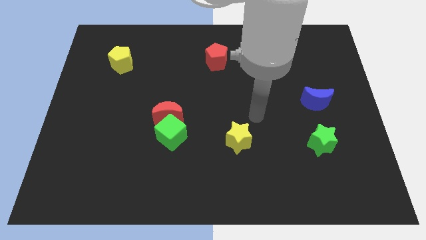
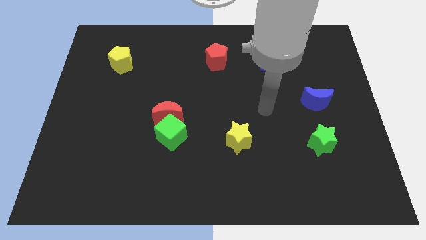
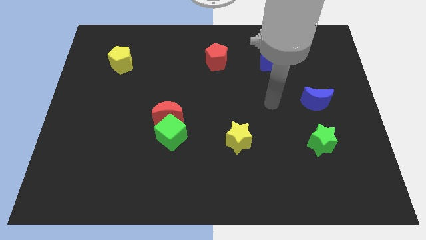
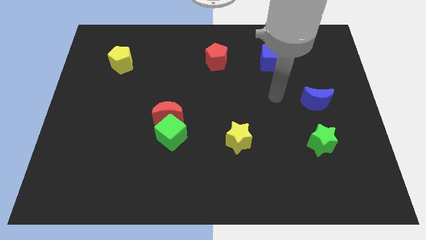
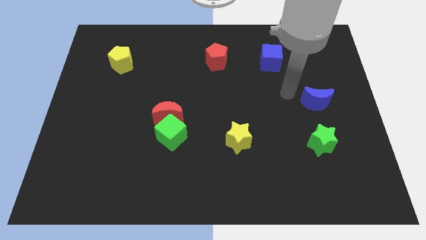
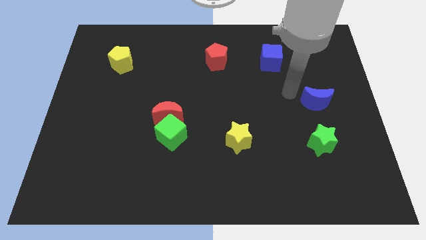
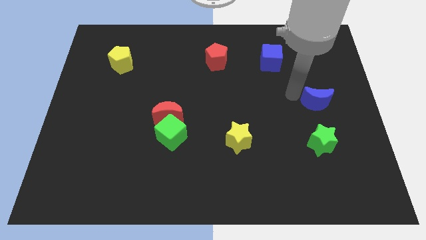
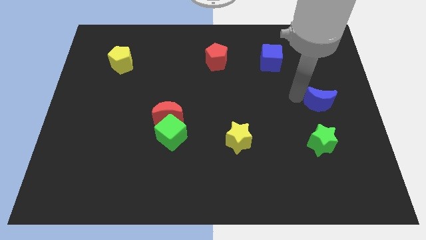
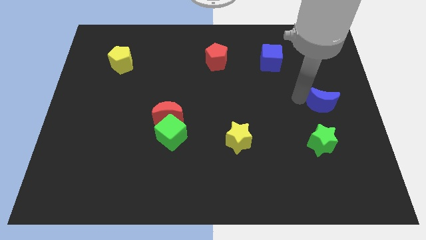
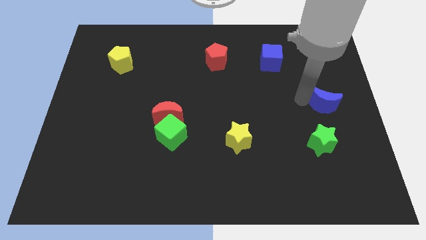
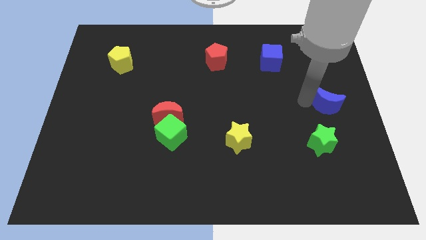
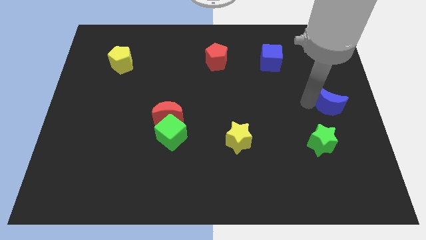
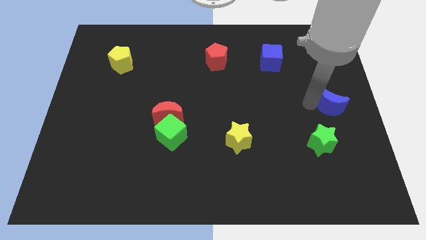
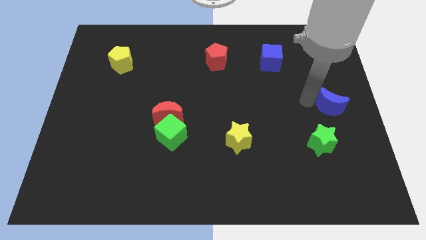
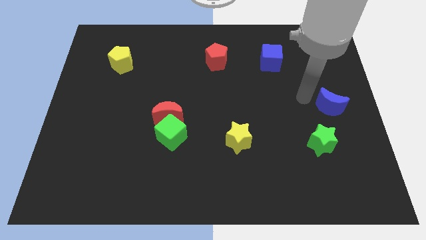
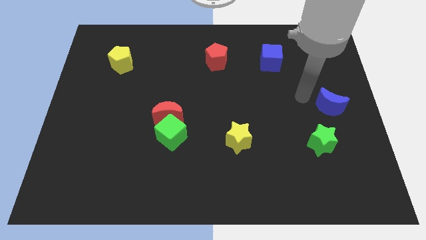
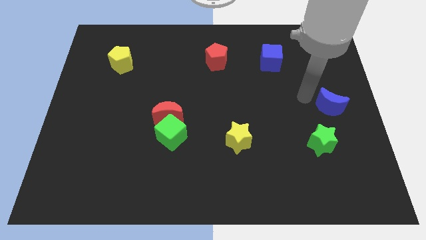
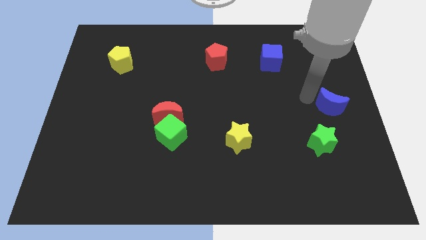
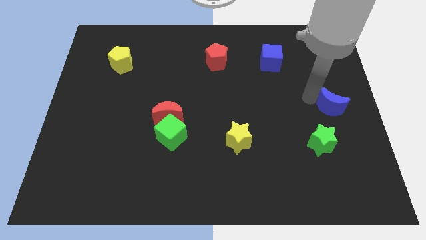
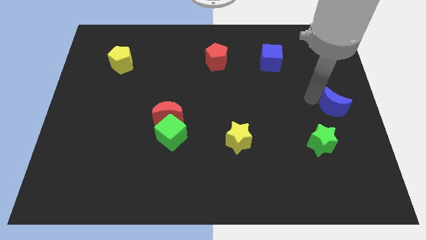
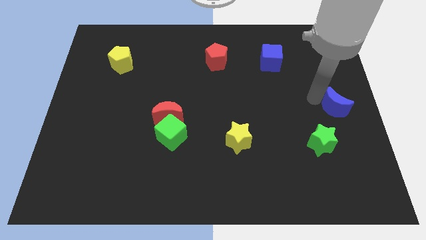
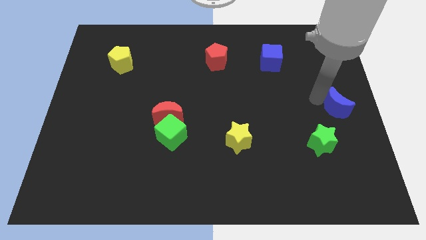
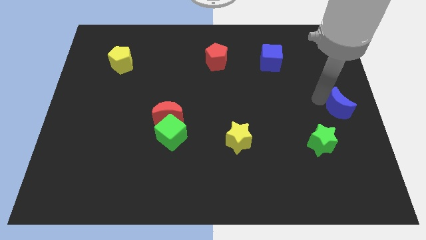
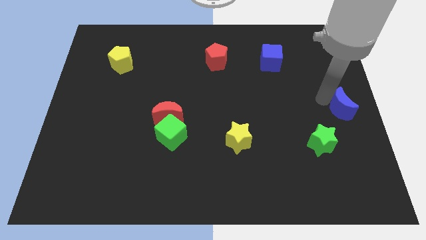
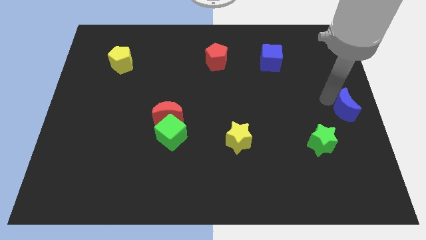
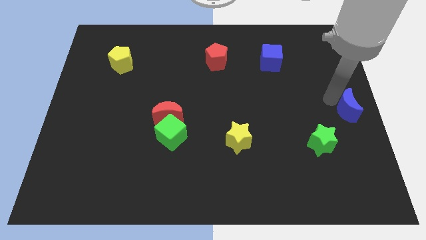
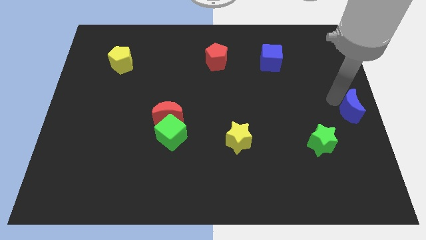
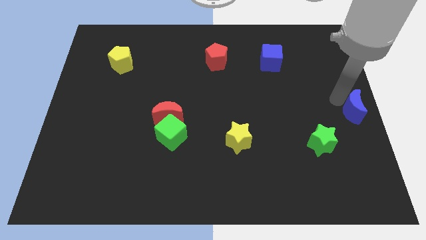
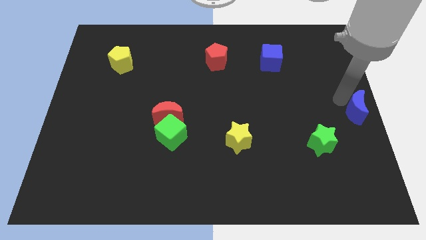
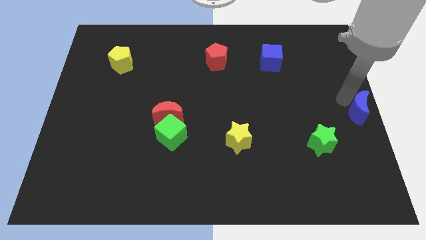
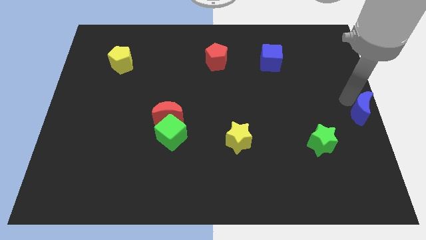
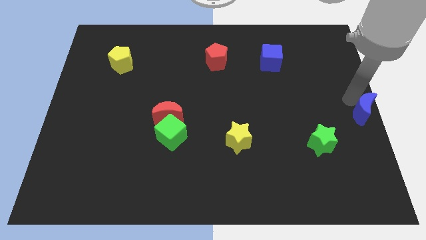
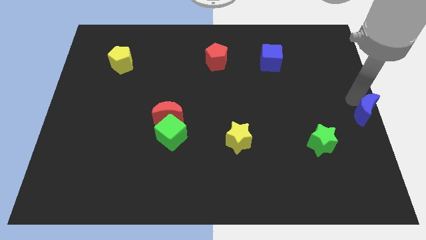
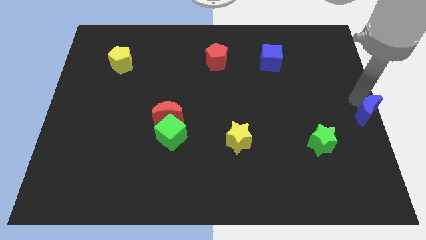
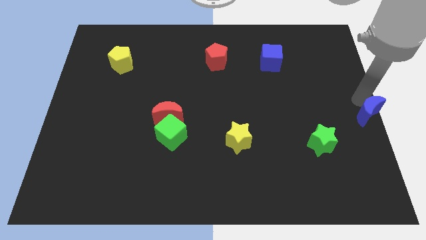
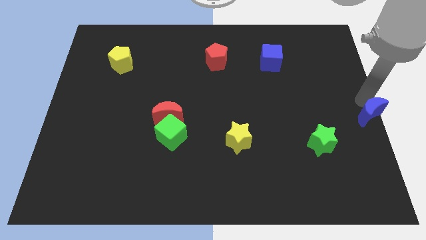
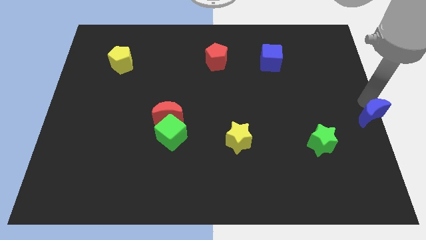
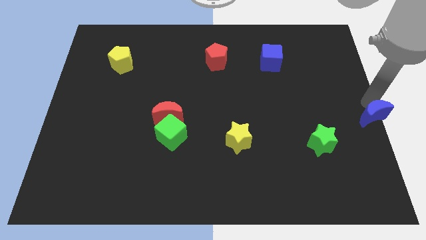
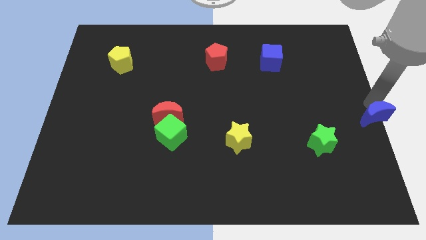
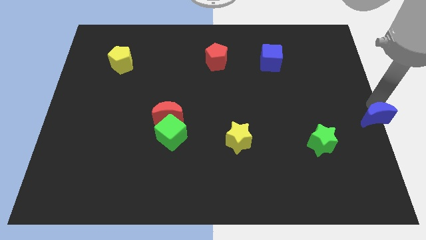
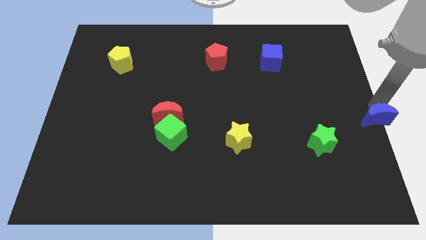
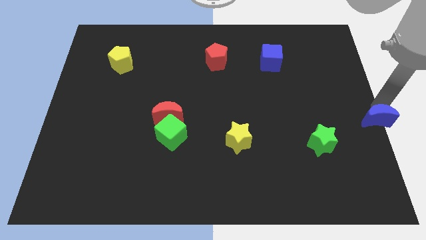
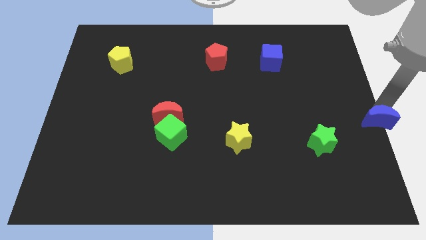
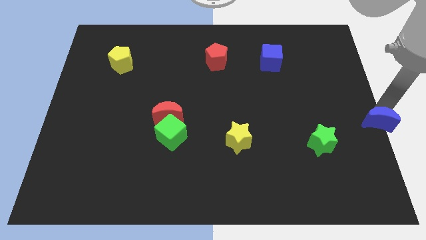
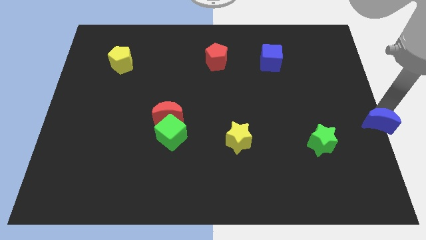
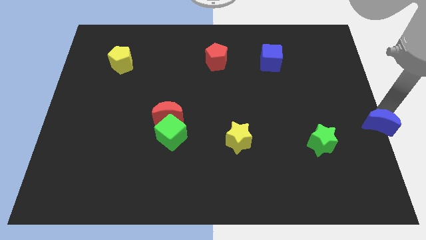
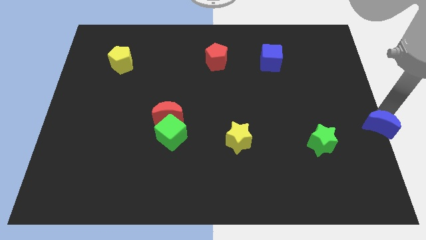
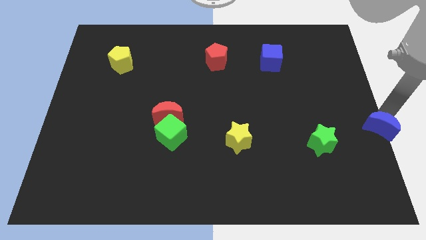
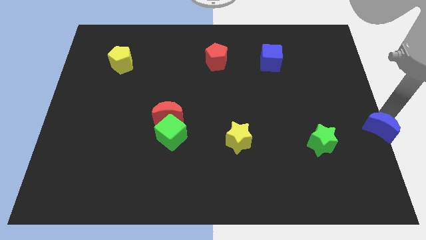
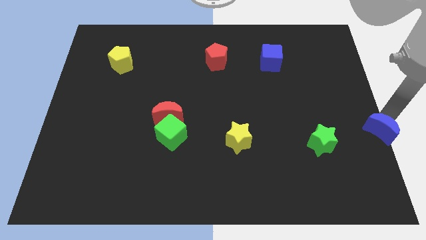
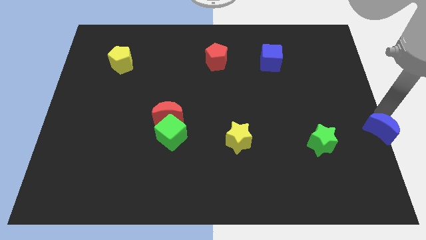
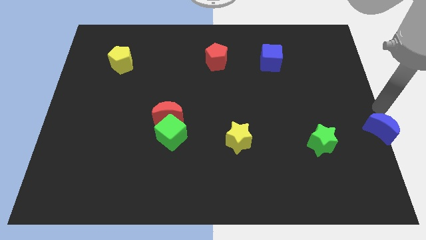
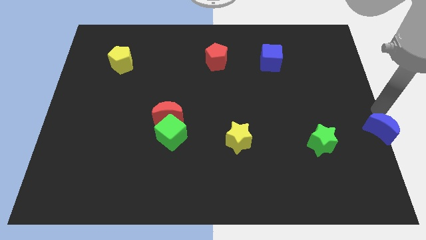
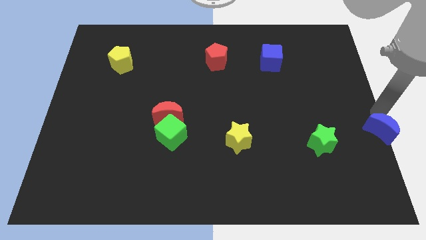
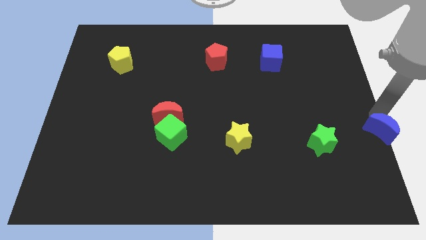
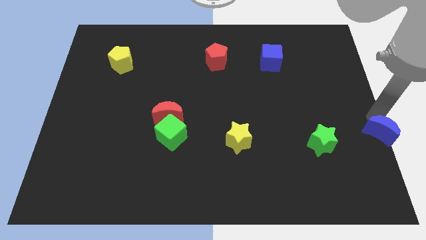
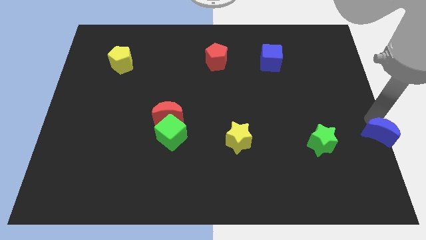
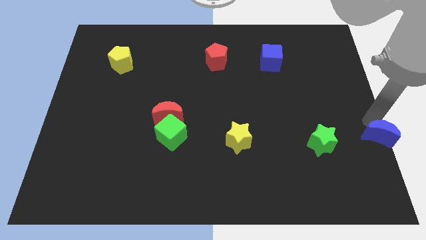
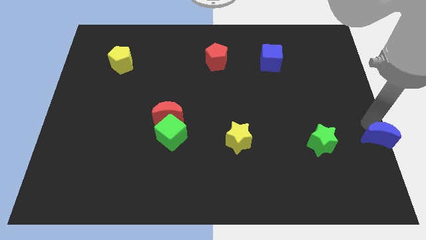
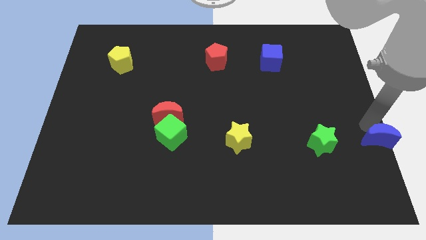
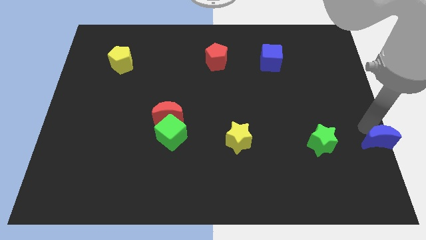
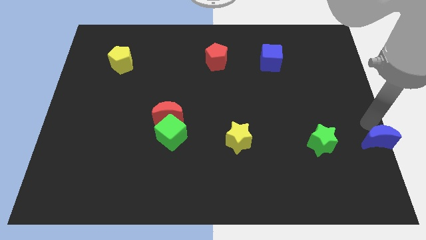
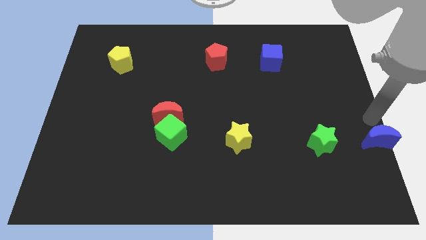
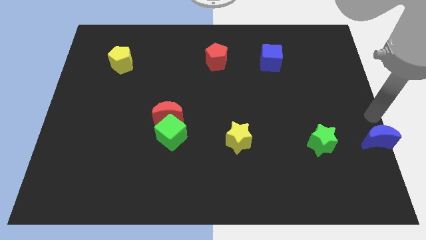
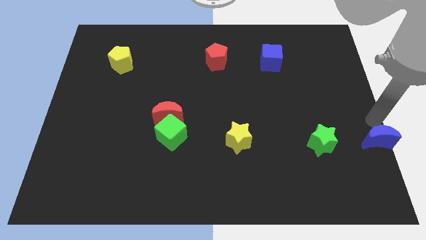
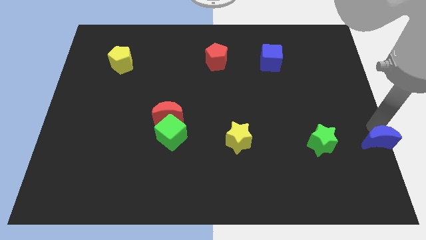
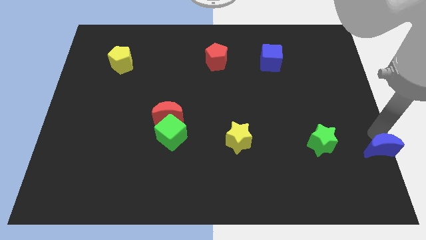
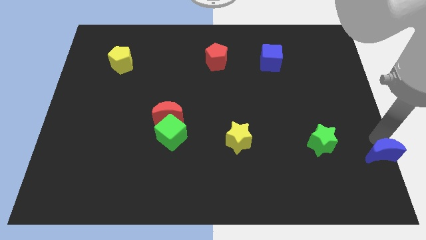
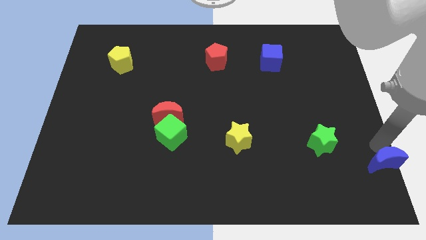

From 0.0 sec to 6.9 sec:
push the blue moon to the bottom right
